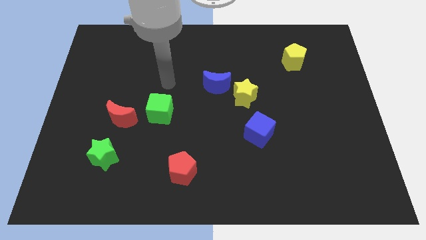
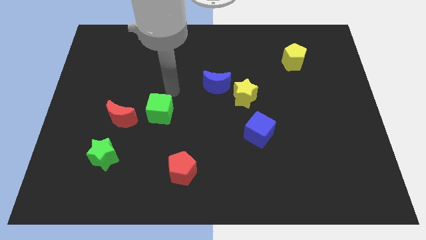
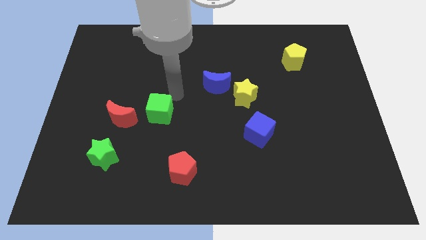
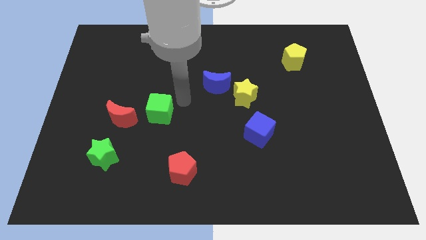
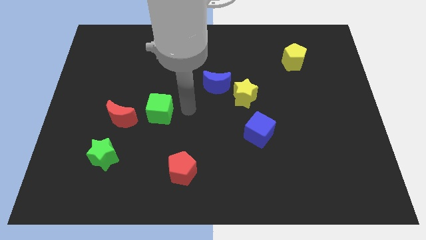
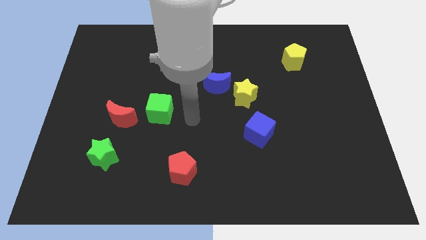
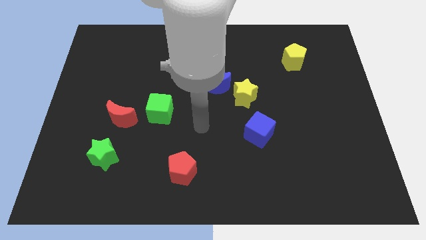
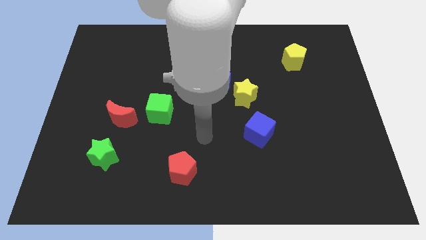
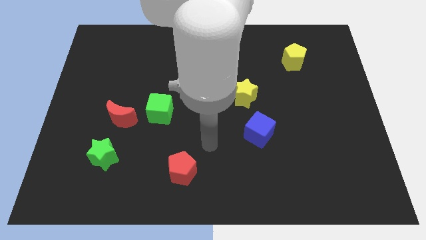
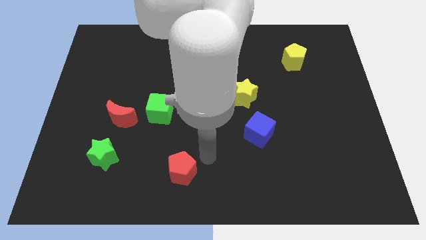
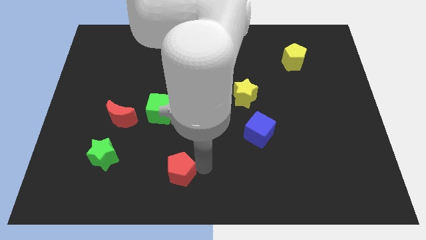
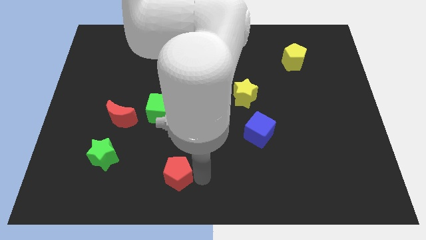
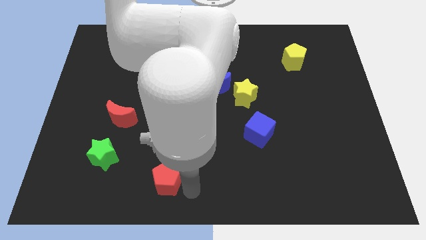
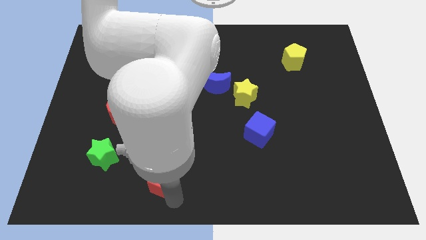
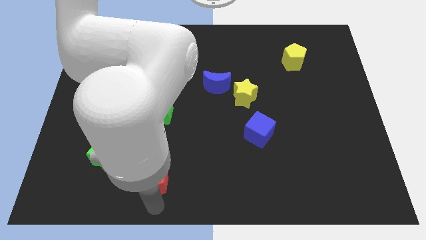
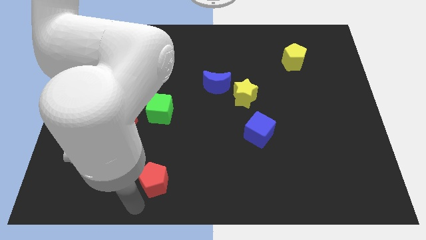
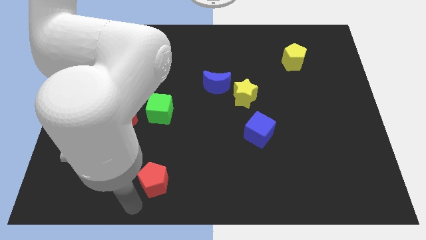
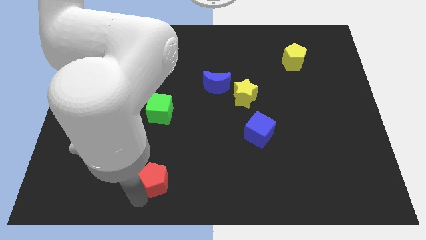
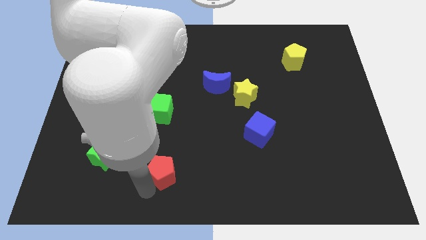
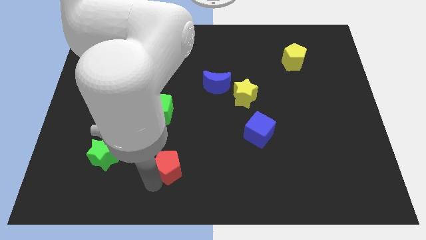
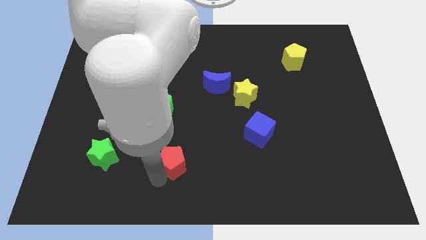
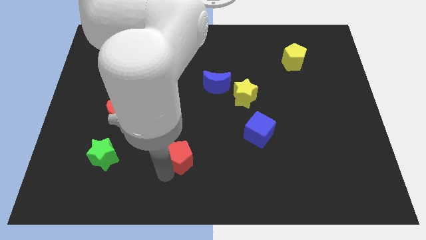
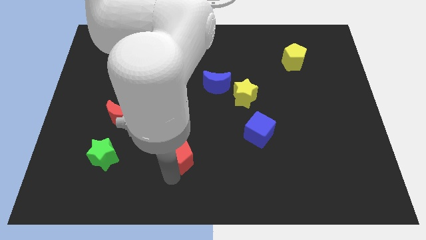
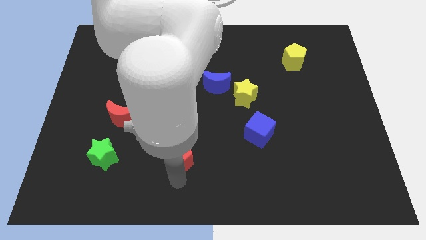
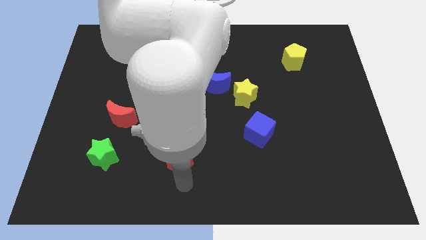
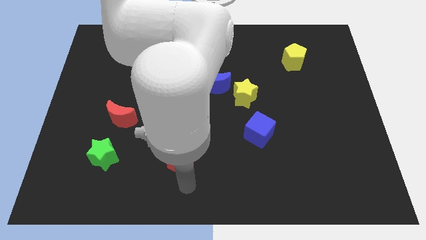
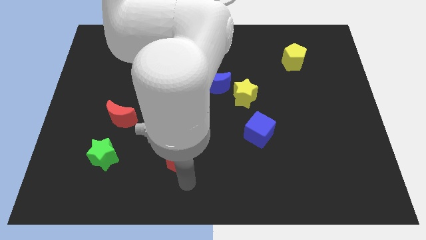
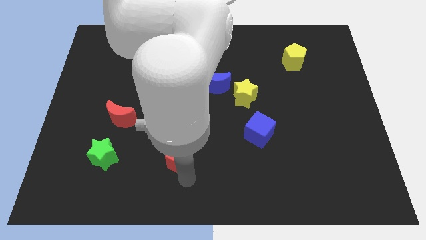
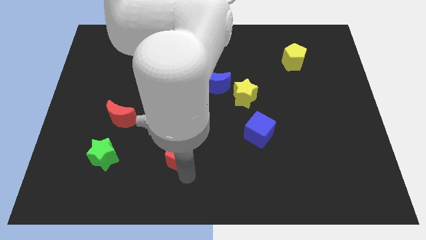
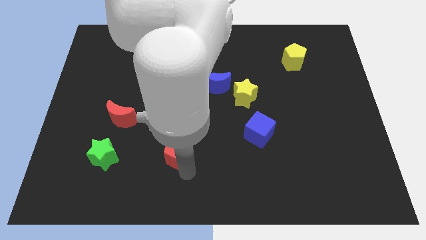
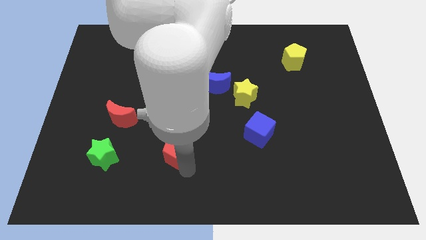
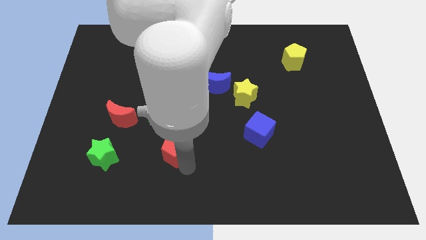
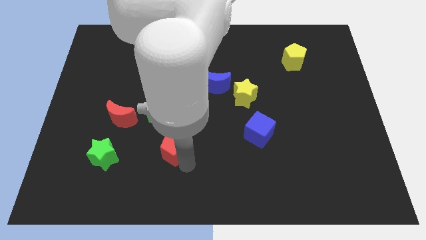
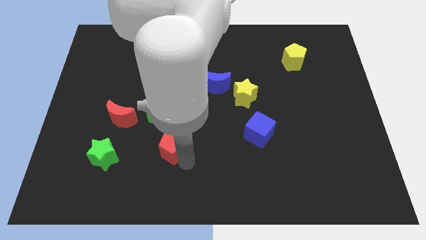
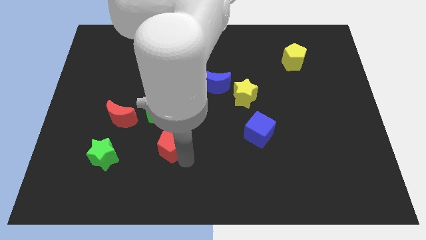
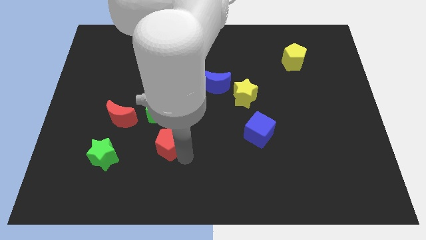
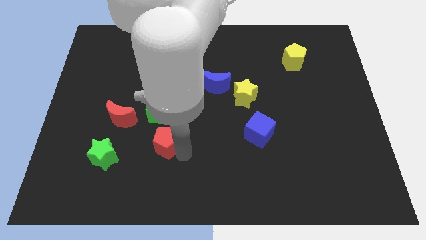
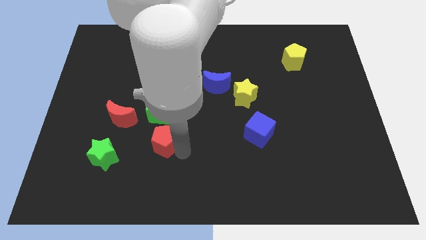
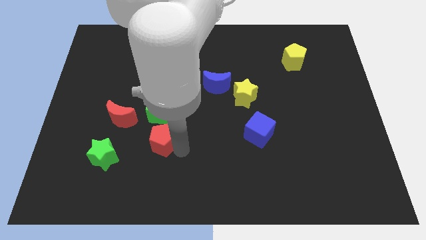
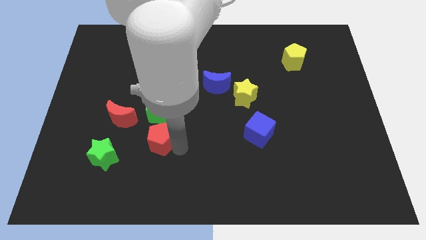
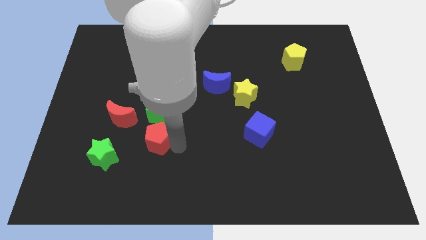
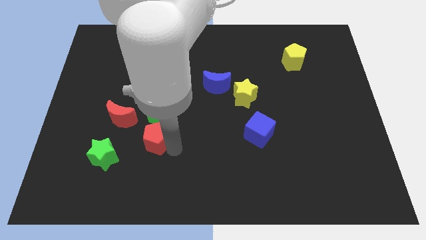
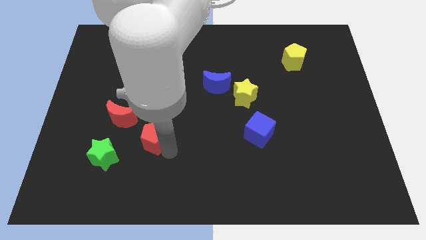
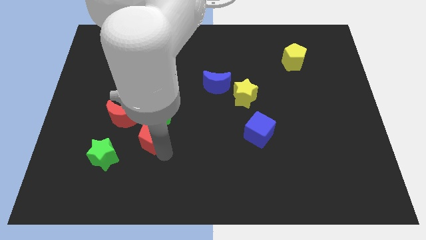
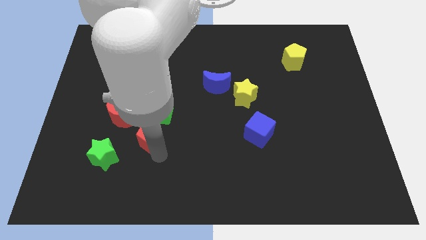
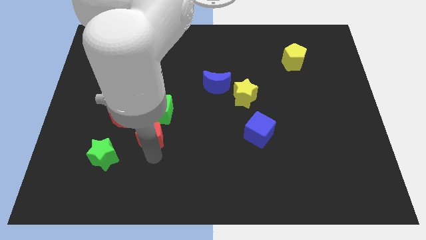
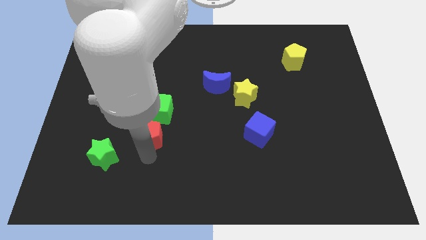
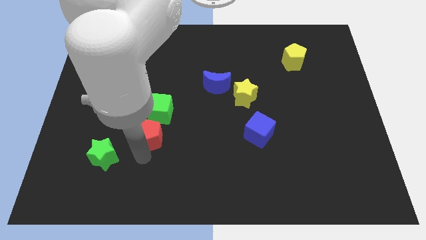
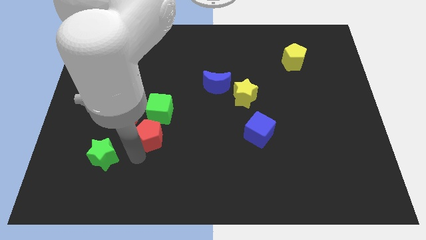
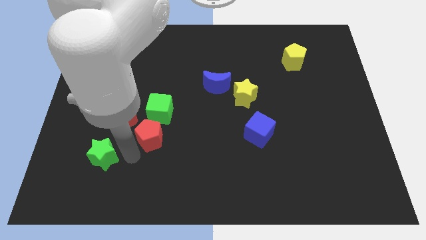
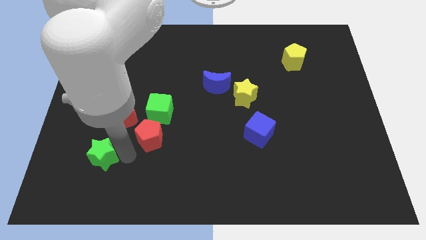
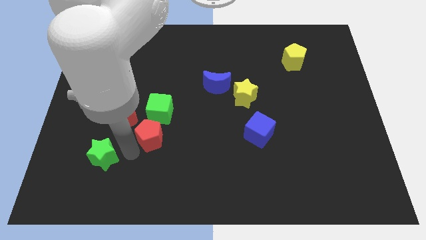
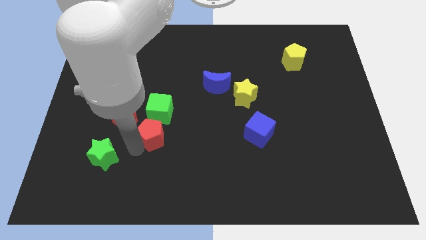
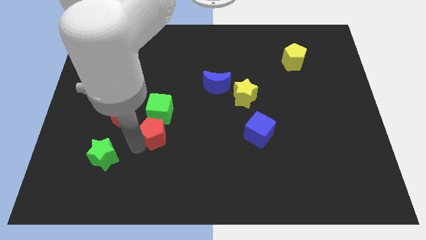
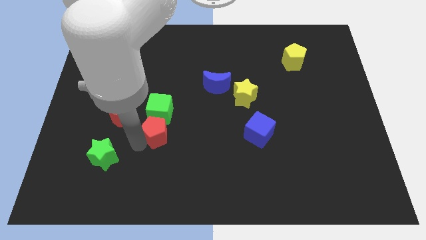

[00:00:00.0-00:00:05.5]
slide the red pentagon towards the green cube

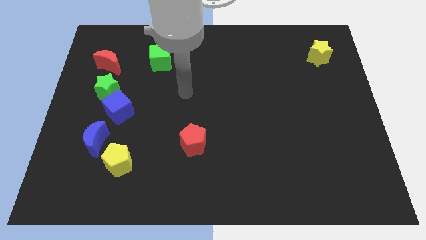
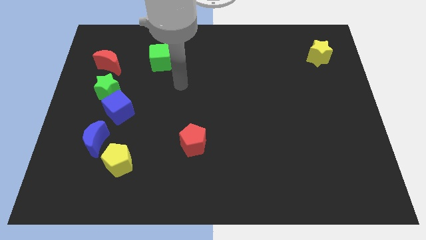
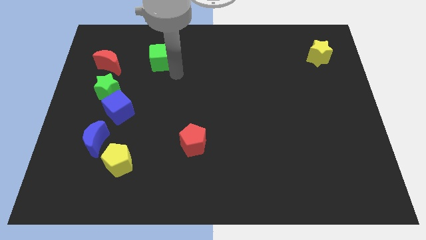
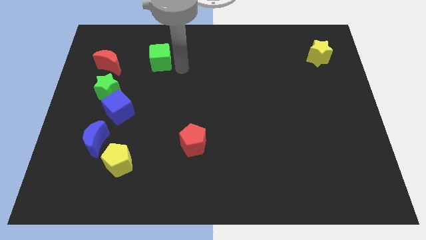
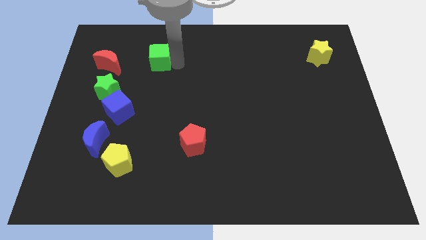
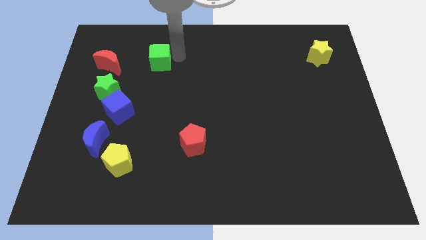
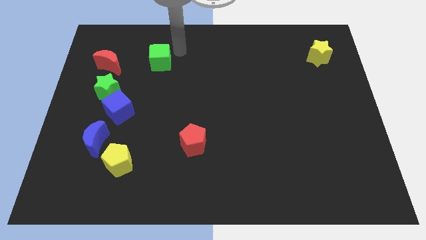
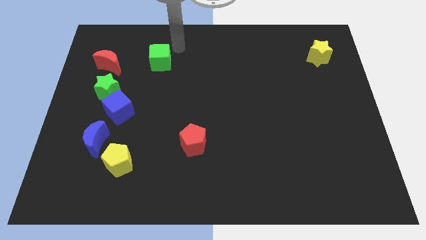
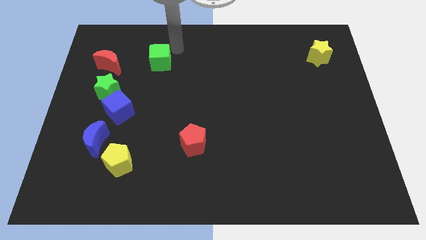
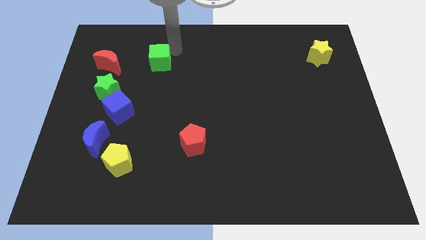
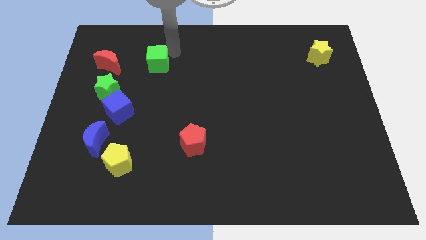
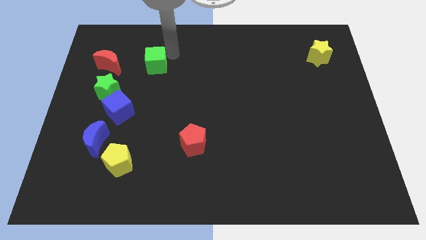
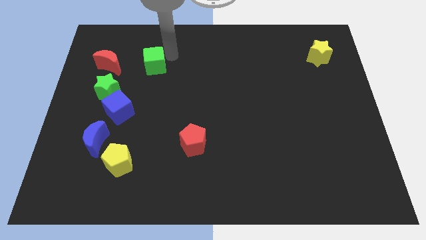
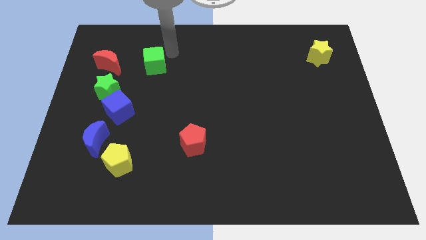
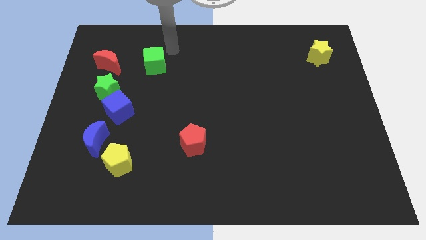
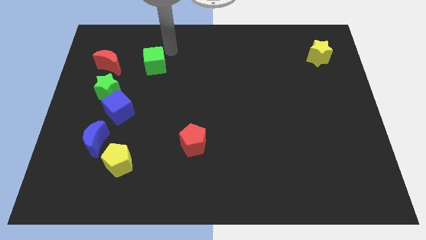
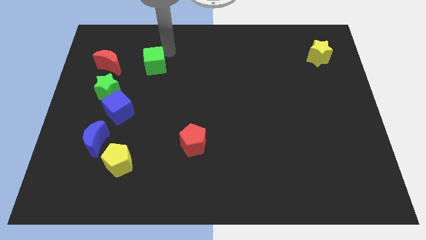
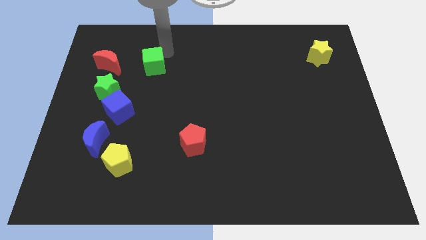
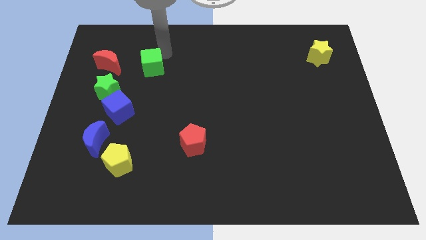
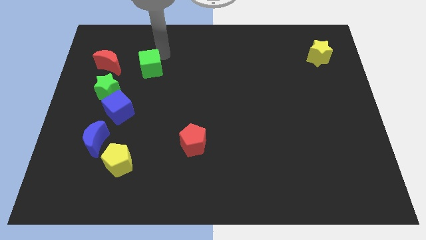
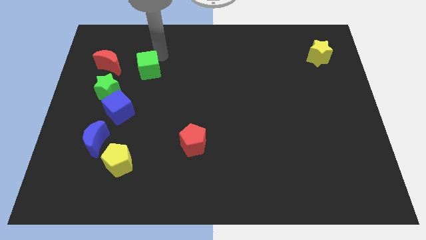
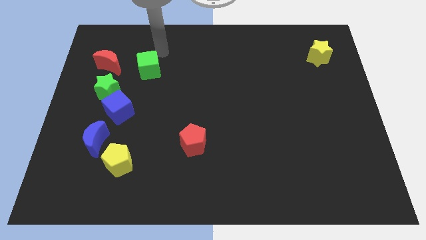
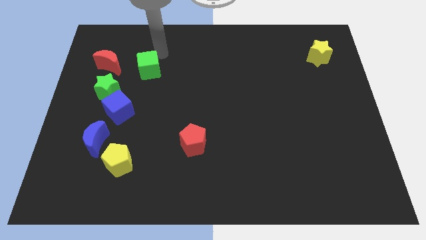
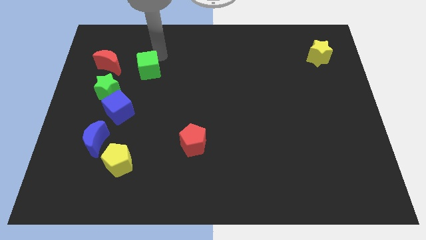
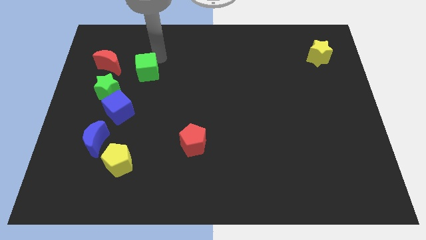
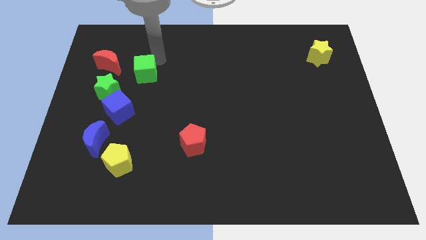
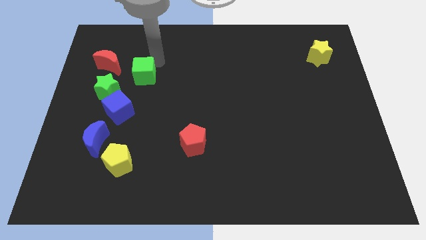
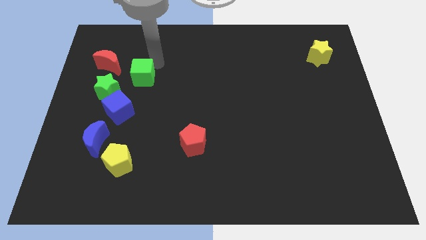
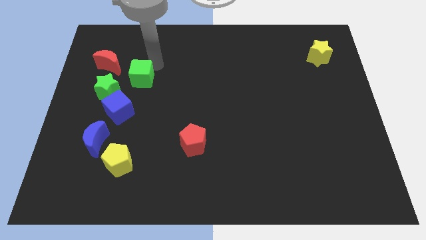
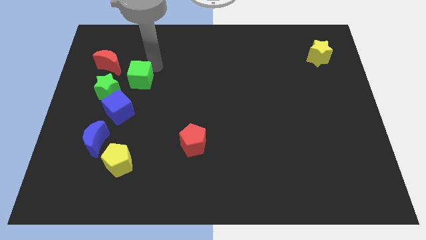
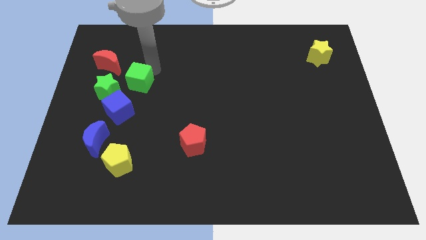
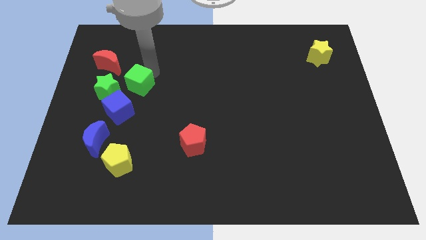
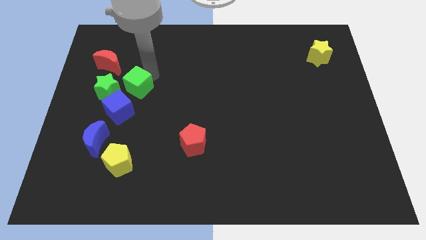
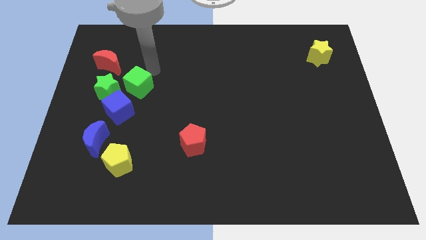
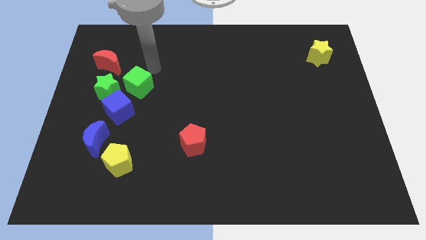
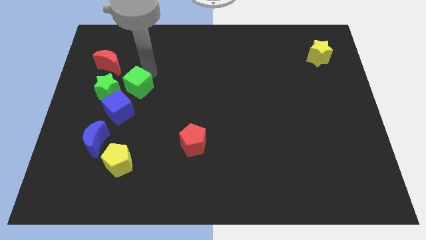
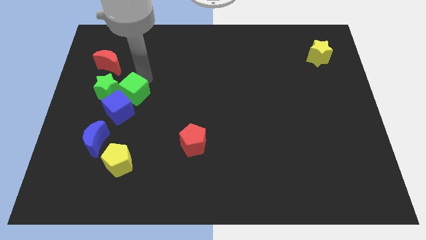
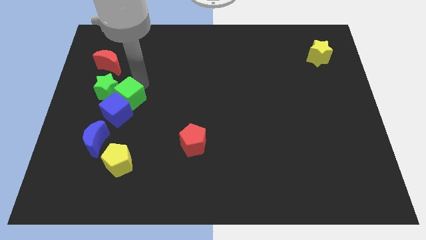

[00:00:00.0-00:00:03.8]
slide the green cube close to the blue cube
